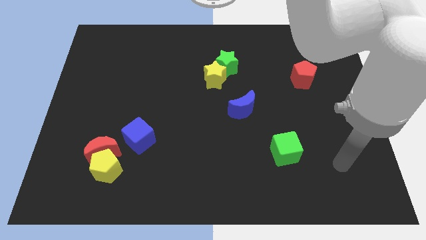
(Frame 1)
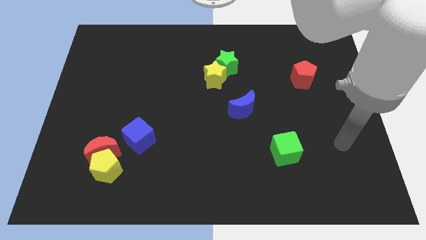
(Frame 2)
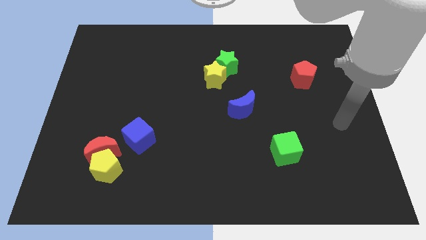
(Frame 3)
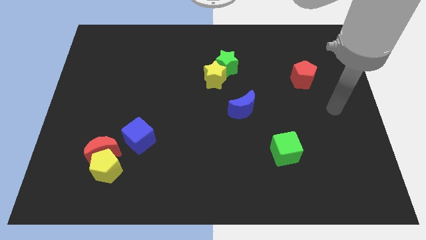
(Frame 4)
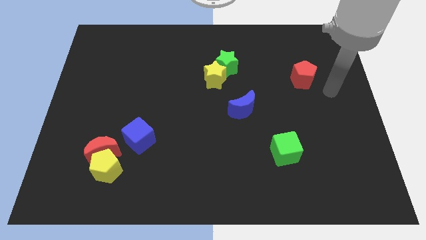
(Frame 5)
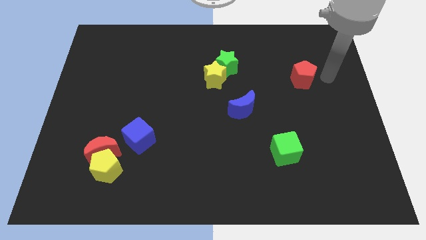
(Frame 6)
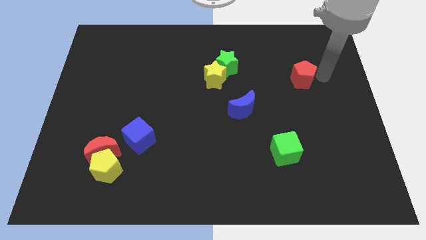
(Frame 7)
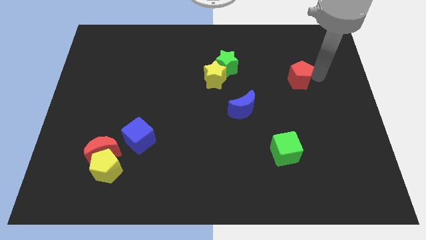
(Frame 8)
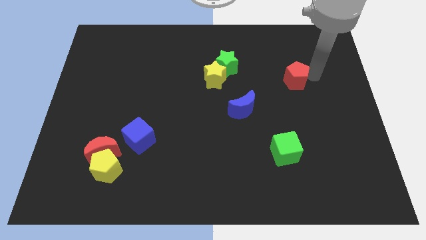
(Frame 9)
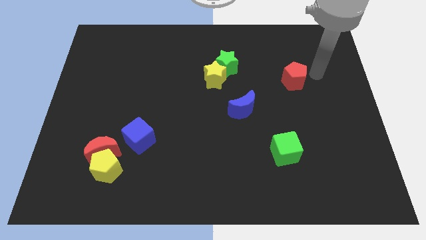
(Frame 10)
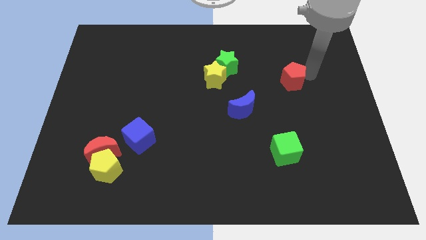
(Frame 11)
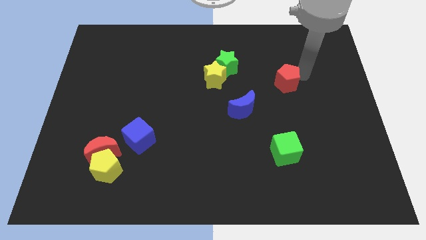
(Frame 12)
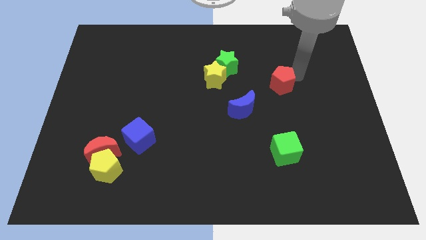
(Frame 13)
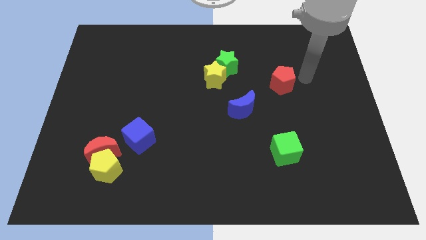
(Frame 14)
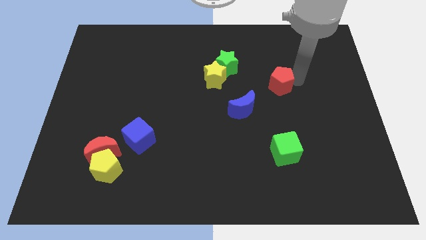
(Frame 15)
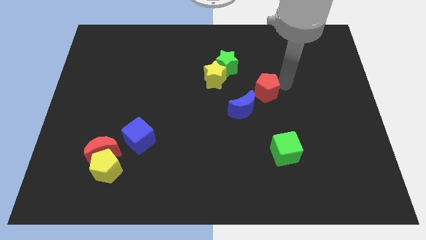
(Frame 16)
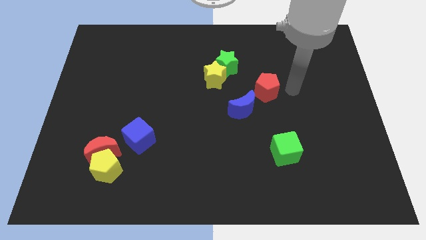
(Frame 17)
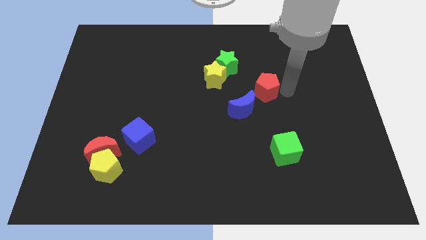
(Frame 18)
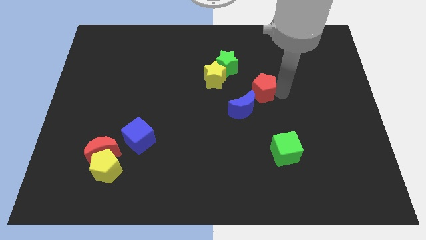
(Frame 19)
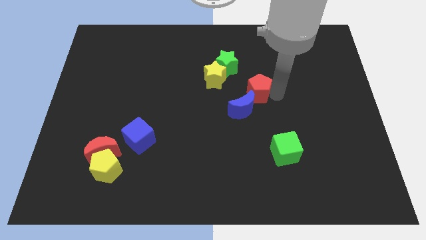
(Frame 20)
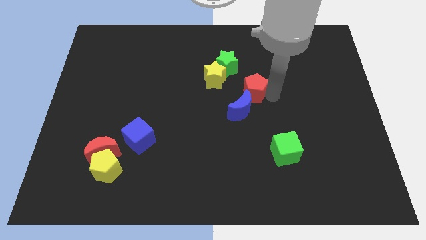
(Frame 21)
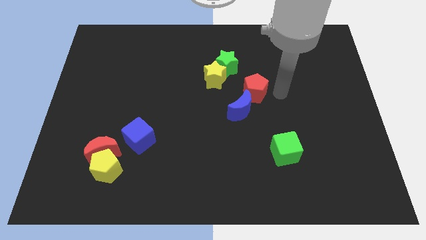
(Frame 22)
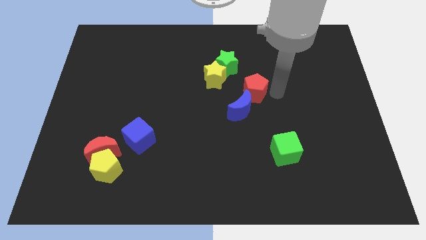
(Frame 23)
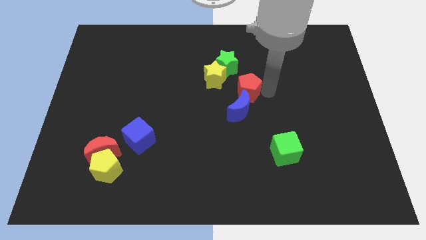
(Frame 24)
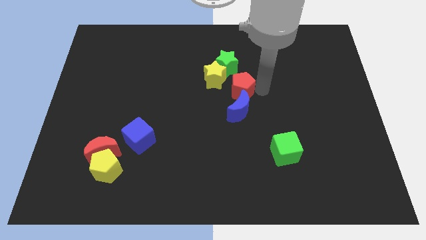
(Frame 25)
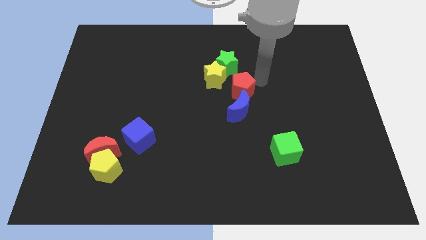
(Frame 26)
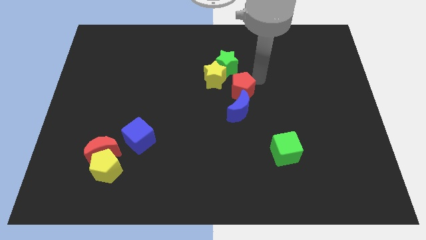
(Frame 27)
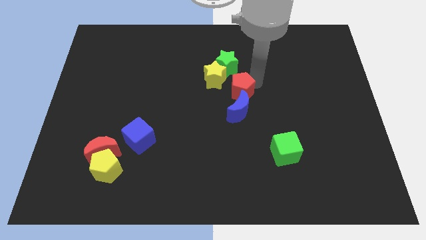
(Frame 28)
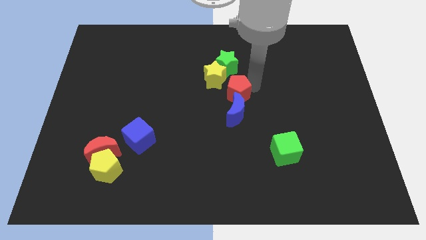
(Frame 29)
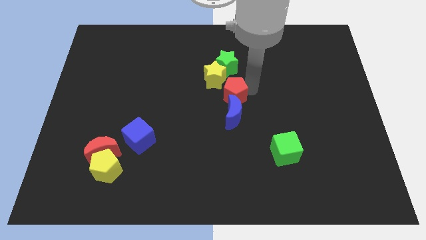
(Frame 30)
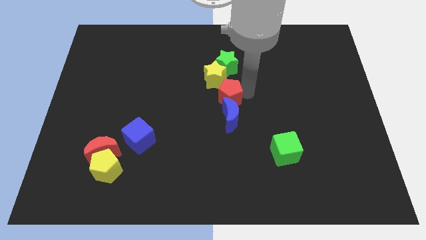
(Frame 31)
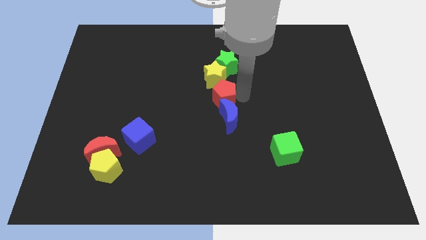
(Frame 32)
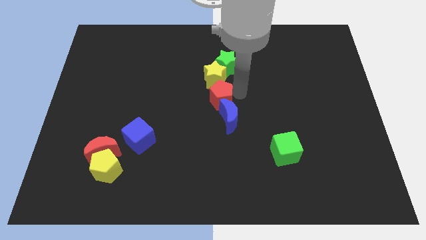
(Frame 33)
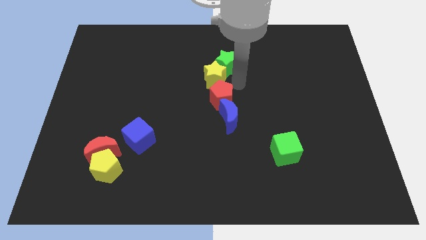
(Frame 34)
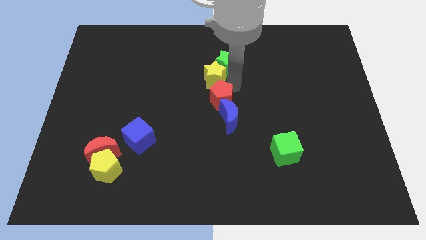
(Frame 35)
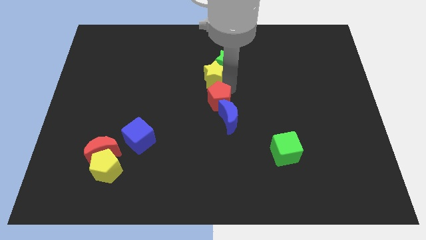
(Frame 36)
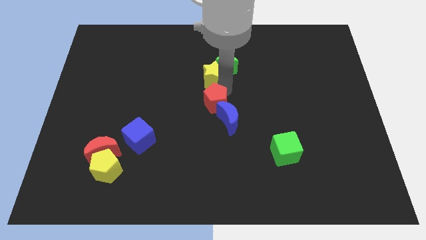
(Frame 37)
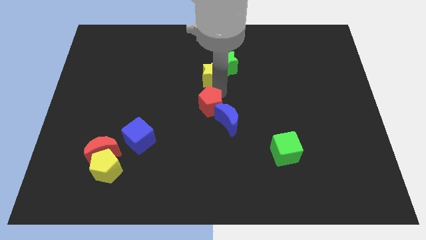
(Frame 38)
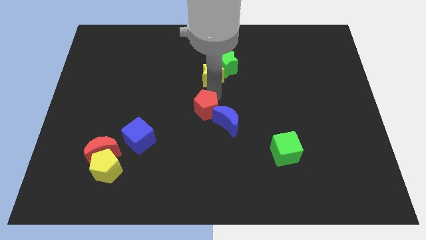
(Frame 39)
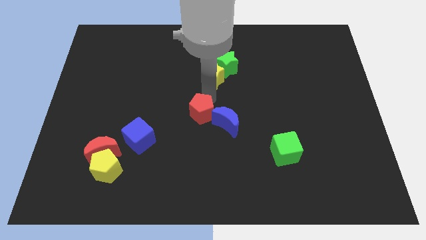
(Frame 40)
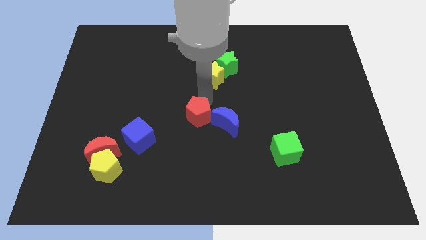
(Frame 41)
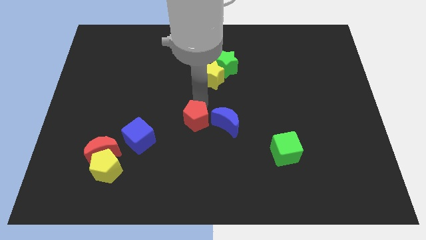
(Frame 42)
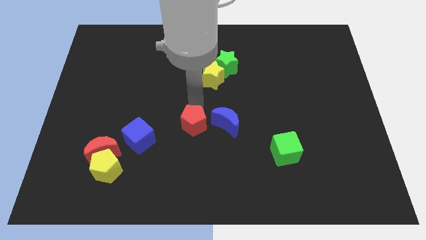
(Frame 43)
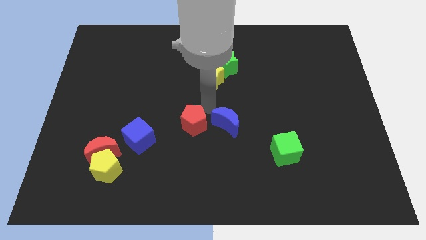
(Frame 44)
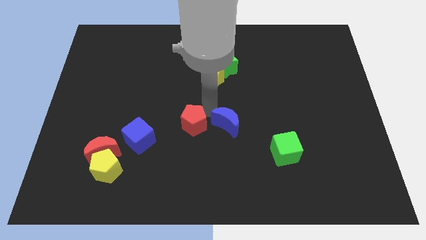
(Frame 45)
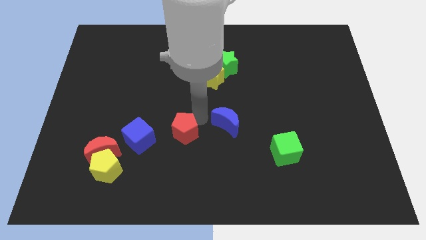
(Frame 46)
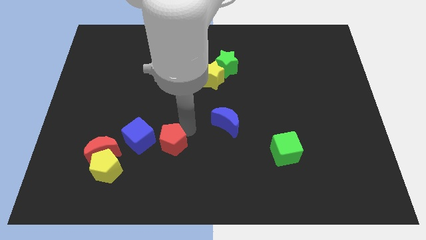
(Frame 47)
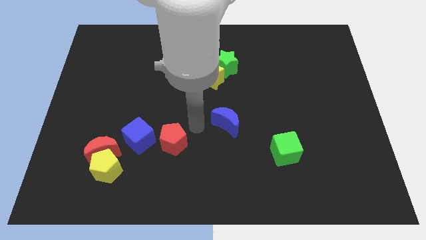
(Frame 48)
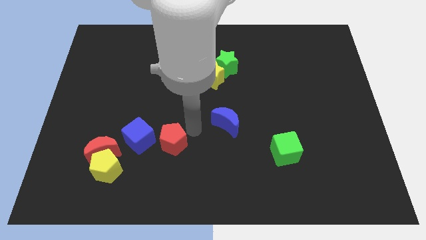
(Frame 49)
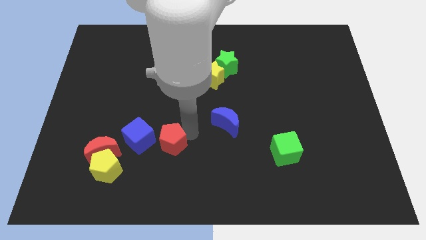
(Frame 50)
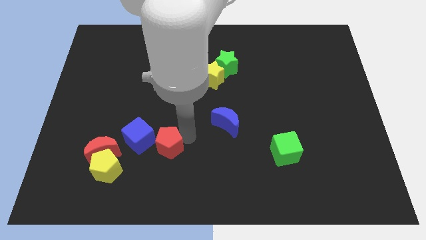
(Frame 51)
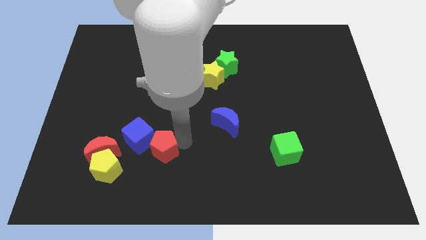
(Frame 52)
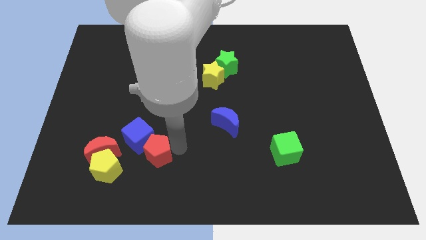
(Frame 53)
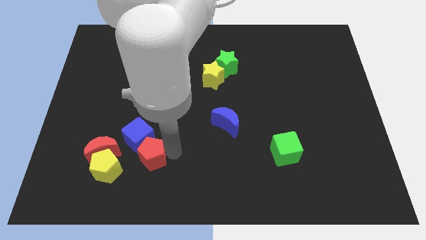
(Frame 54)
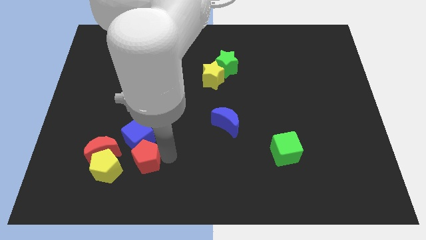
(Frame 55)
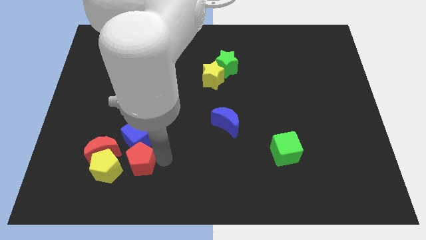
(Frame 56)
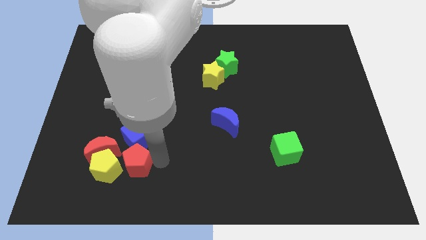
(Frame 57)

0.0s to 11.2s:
move the red pentagon towards the yellow pentagon

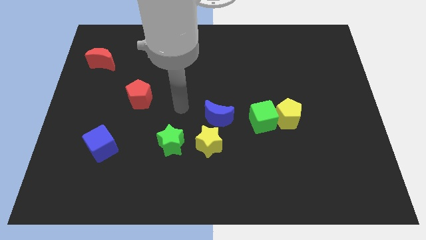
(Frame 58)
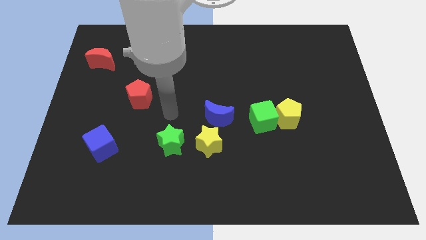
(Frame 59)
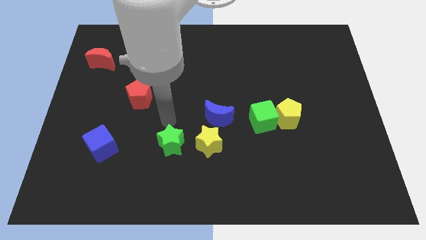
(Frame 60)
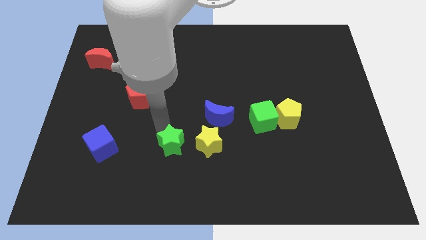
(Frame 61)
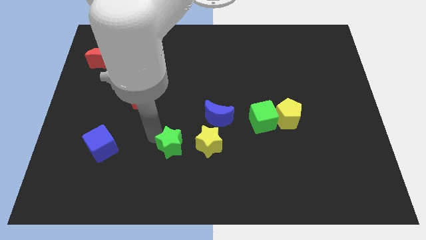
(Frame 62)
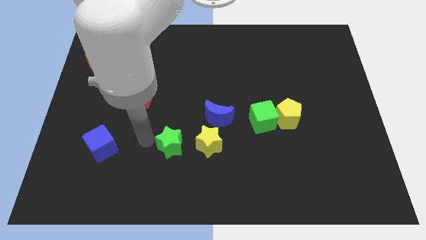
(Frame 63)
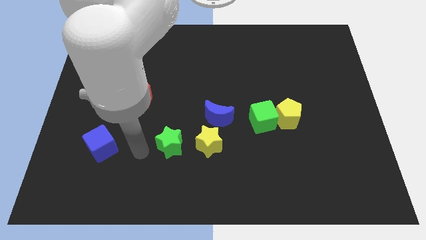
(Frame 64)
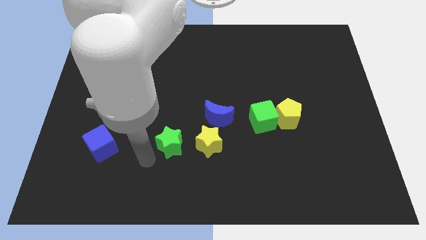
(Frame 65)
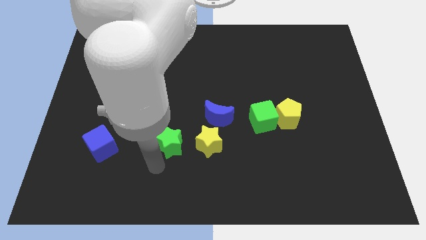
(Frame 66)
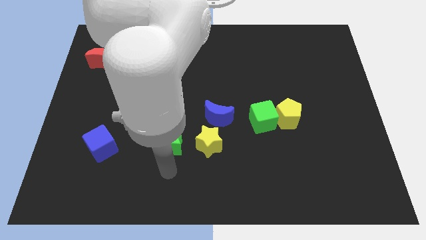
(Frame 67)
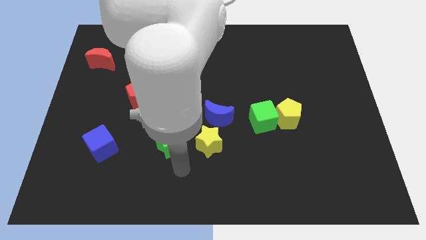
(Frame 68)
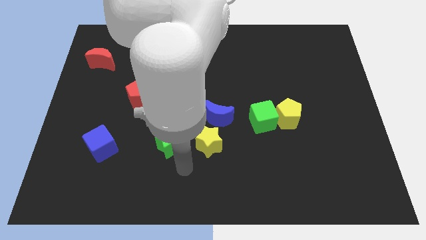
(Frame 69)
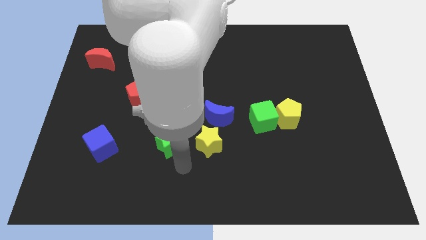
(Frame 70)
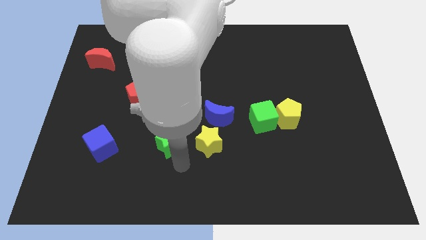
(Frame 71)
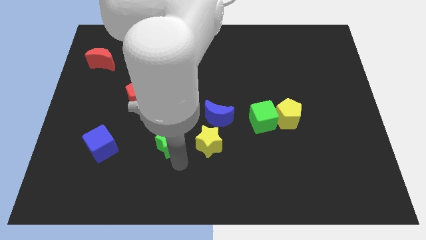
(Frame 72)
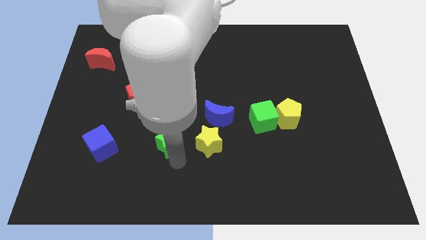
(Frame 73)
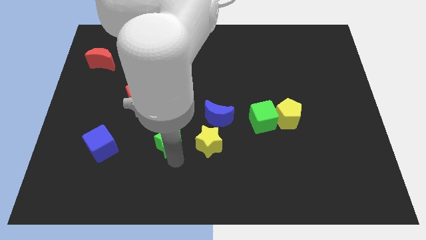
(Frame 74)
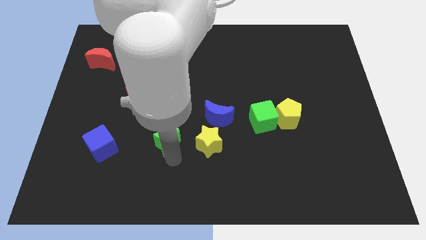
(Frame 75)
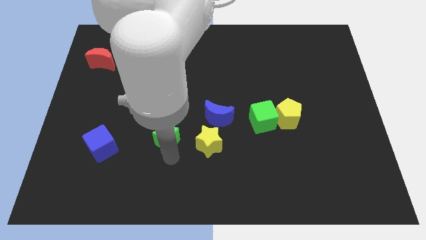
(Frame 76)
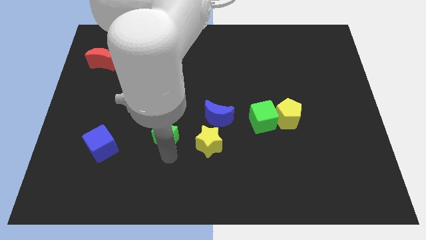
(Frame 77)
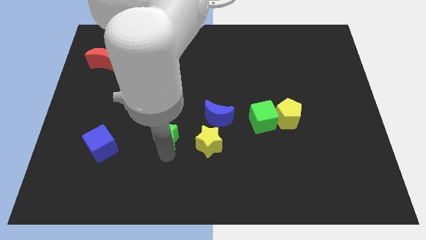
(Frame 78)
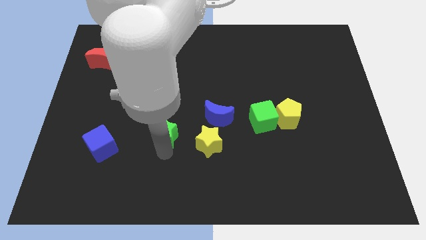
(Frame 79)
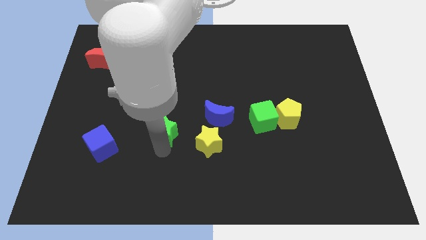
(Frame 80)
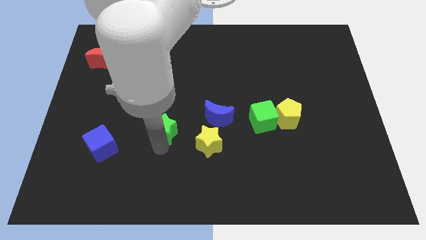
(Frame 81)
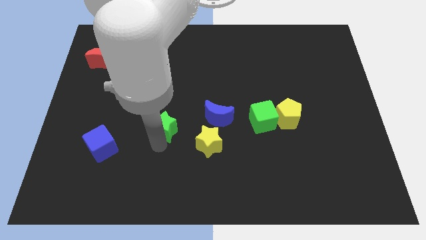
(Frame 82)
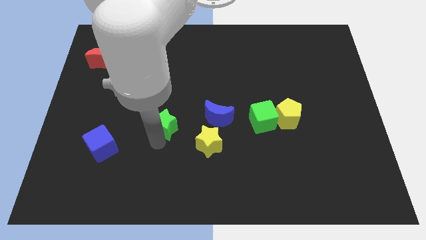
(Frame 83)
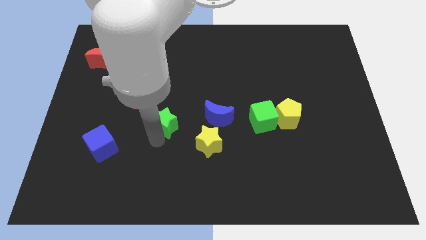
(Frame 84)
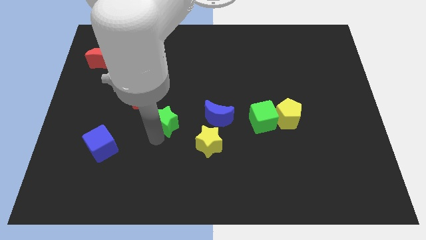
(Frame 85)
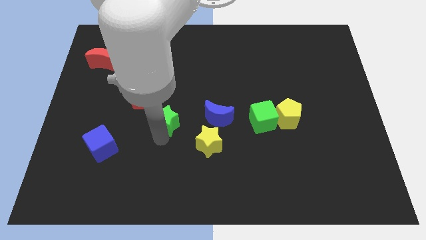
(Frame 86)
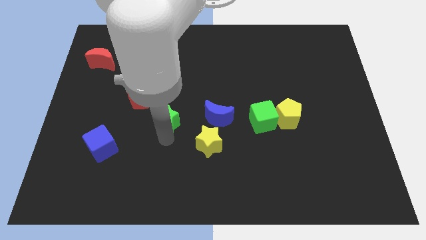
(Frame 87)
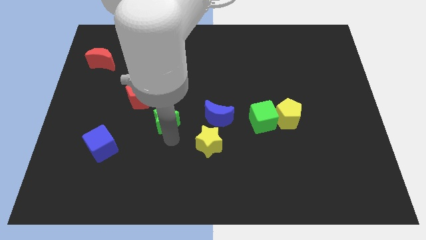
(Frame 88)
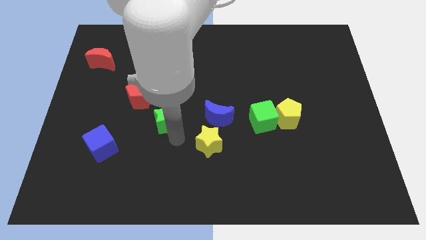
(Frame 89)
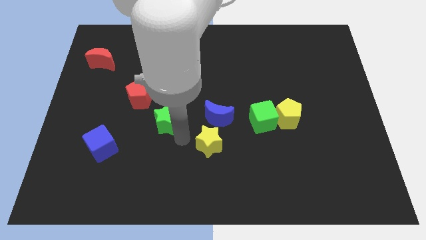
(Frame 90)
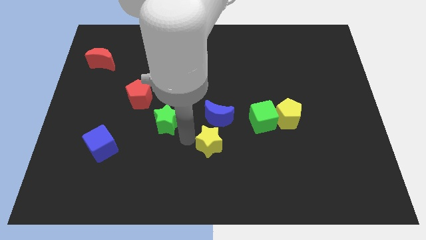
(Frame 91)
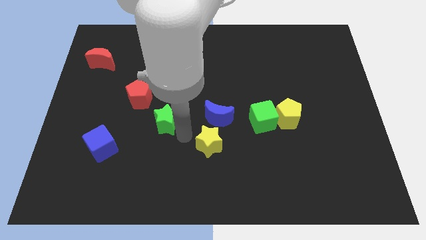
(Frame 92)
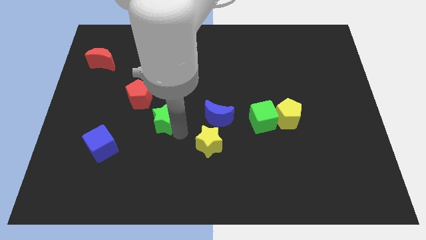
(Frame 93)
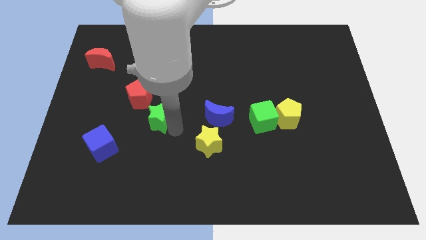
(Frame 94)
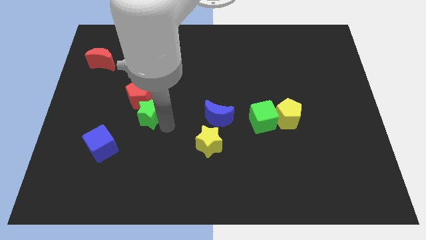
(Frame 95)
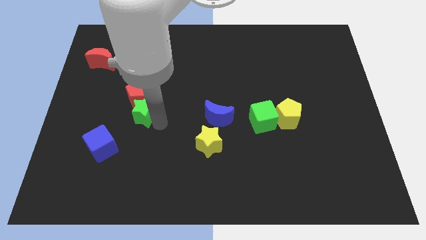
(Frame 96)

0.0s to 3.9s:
slide the green star close to the red pentagon
